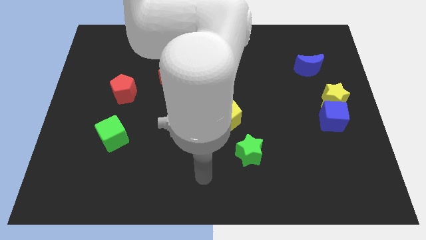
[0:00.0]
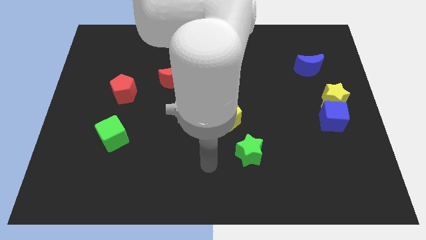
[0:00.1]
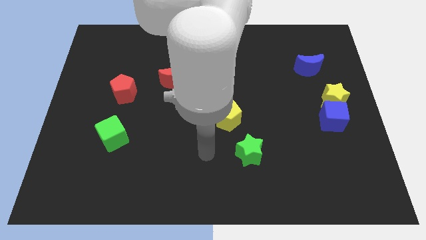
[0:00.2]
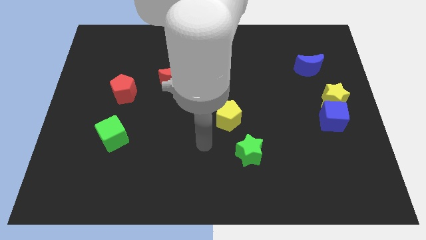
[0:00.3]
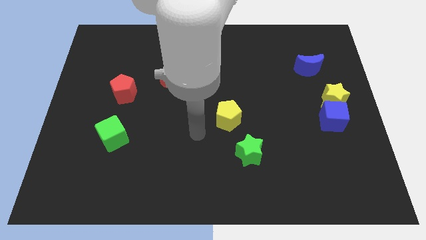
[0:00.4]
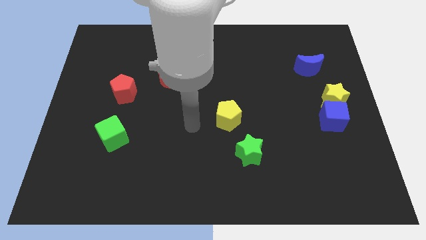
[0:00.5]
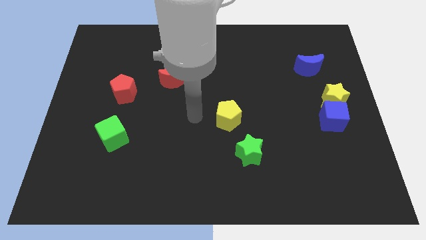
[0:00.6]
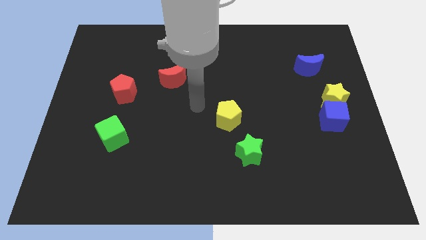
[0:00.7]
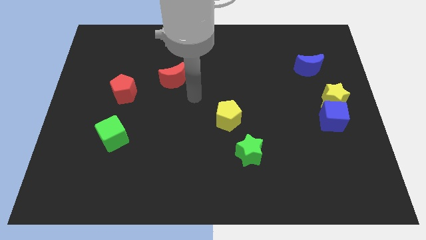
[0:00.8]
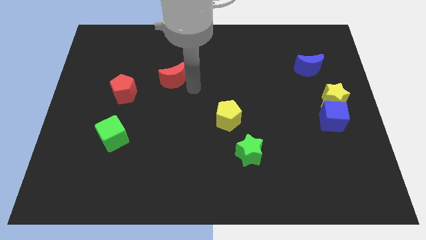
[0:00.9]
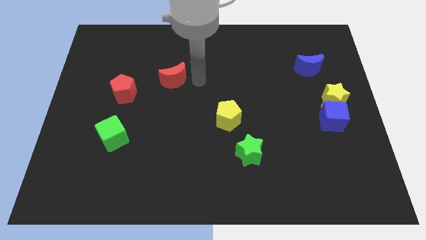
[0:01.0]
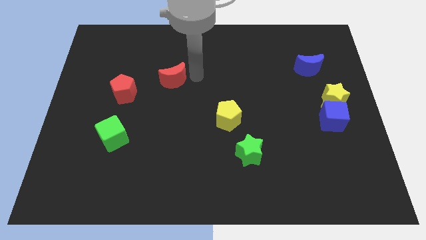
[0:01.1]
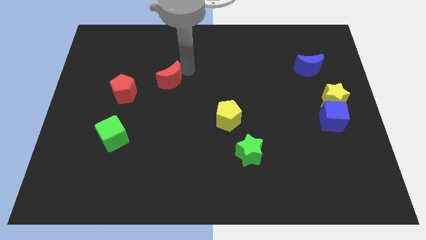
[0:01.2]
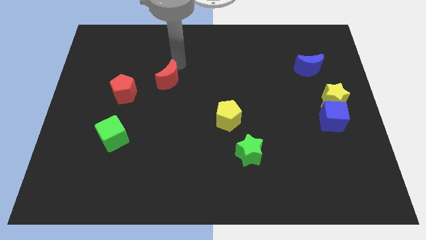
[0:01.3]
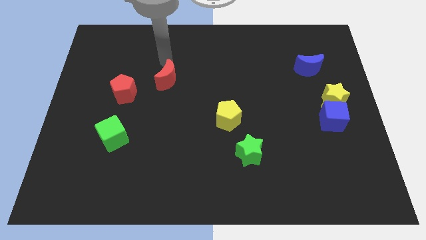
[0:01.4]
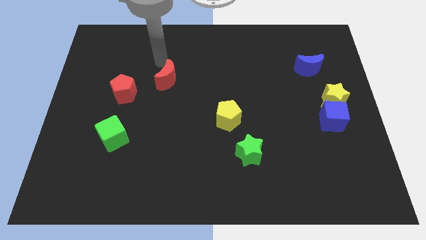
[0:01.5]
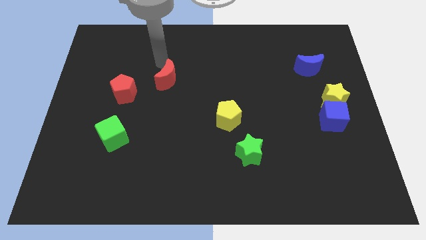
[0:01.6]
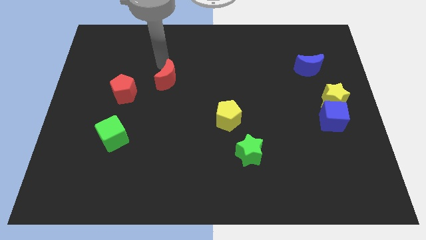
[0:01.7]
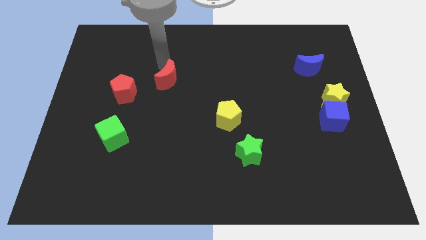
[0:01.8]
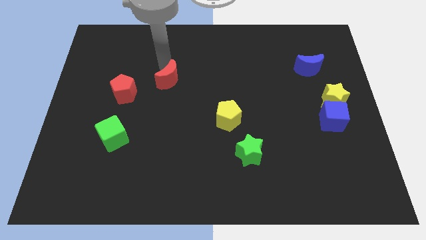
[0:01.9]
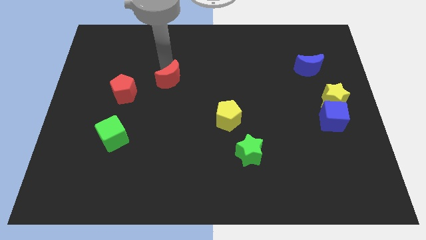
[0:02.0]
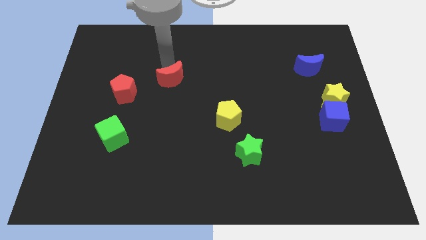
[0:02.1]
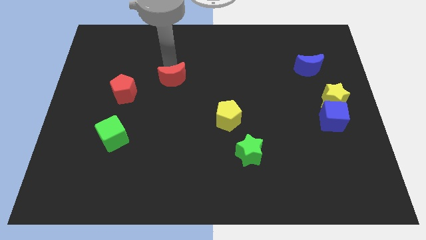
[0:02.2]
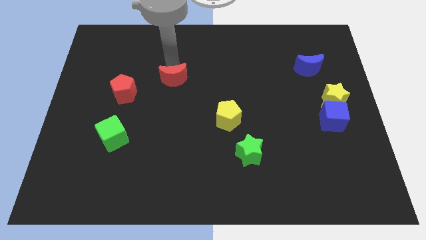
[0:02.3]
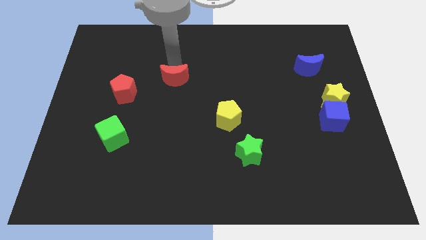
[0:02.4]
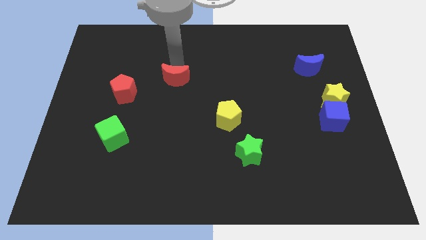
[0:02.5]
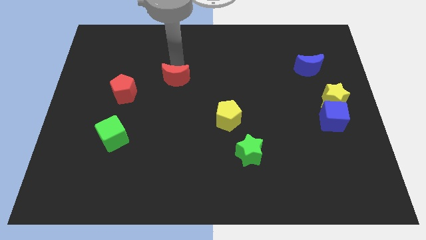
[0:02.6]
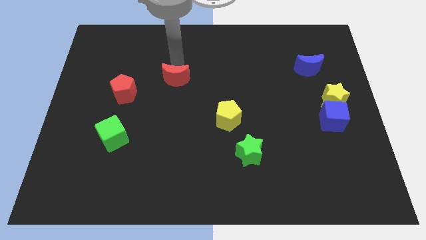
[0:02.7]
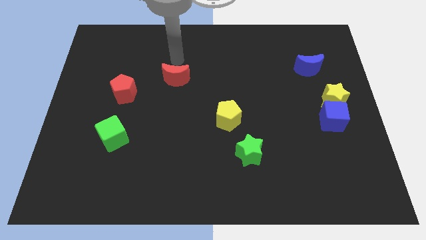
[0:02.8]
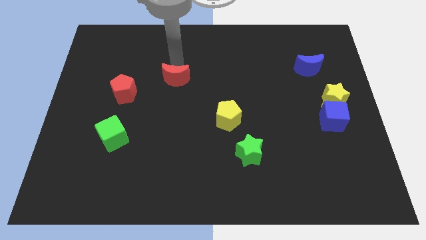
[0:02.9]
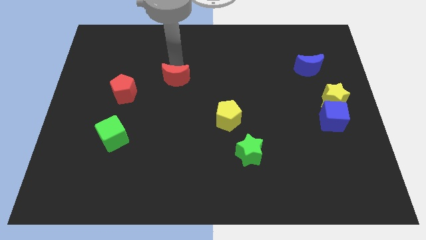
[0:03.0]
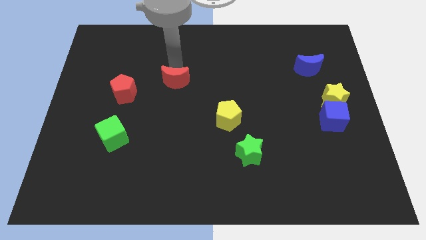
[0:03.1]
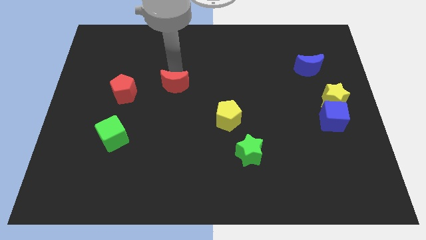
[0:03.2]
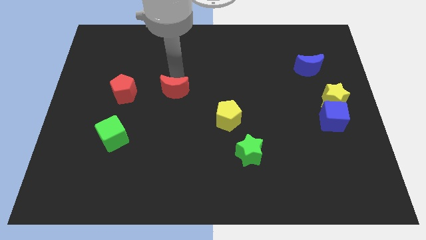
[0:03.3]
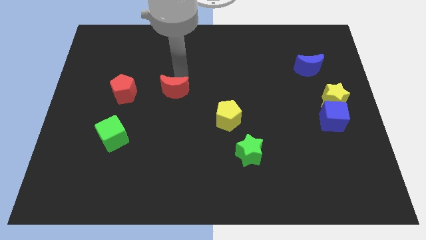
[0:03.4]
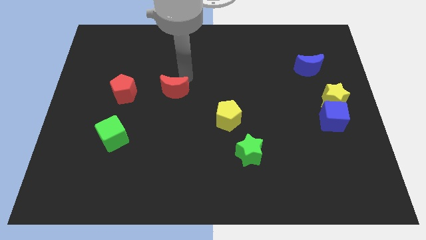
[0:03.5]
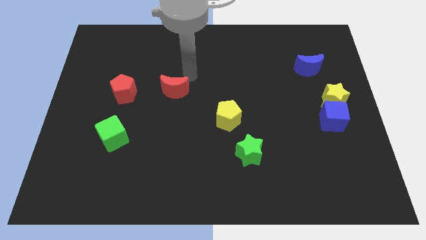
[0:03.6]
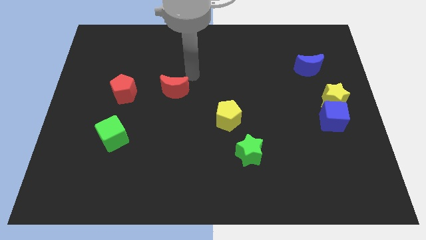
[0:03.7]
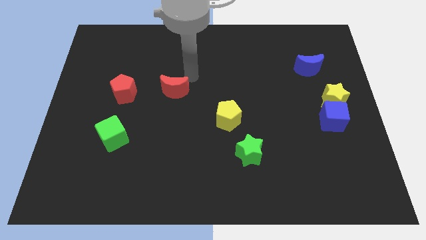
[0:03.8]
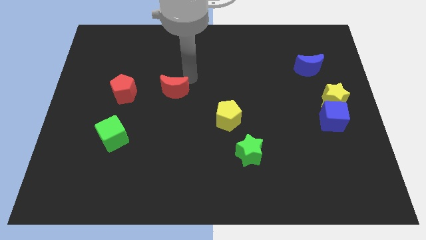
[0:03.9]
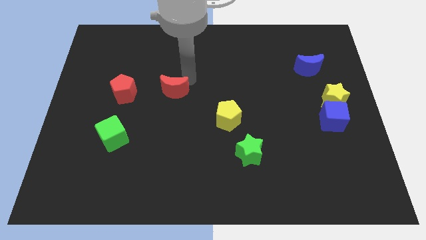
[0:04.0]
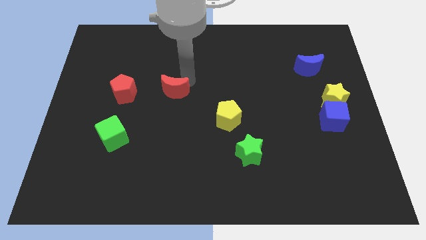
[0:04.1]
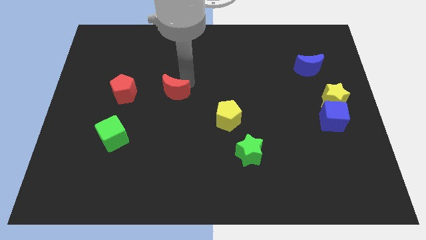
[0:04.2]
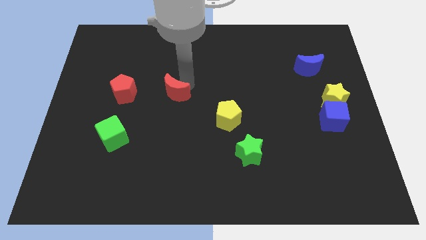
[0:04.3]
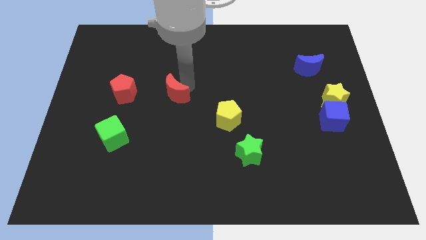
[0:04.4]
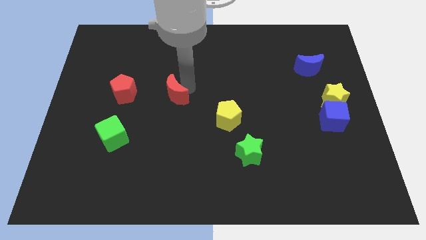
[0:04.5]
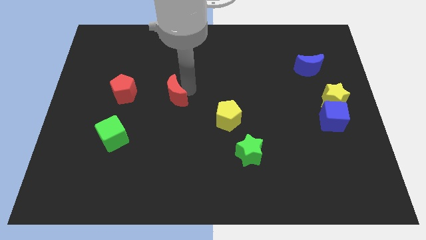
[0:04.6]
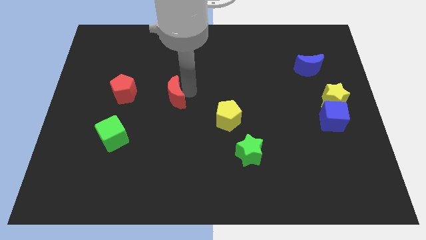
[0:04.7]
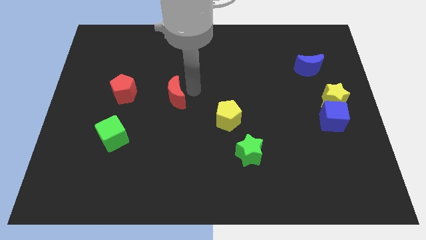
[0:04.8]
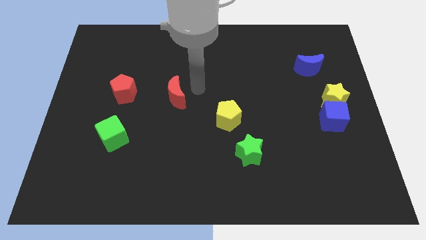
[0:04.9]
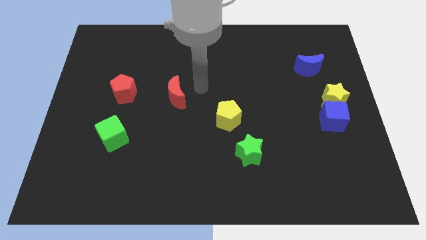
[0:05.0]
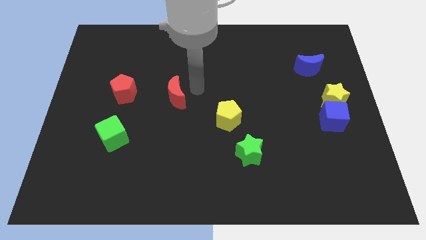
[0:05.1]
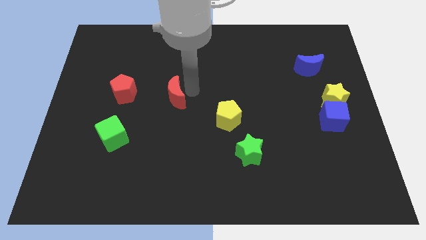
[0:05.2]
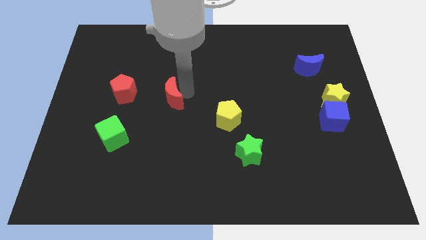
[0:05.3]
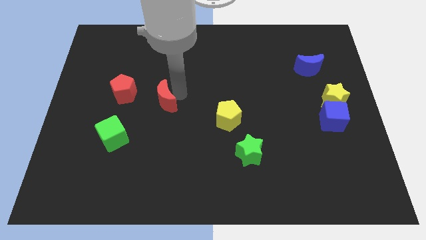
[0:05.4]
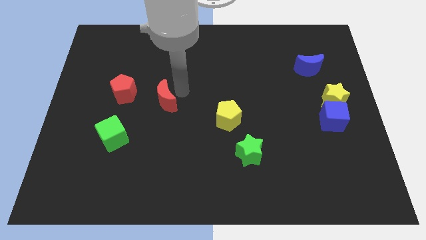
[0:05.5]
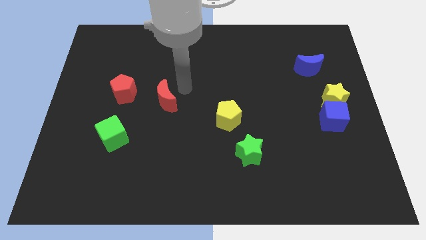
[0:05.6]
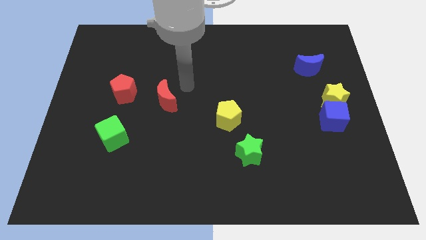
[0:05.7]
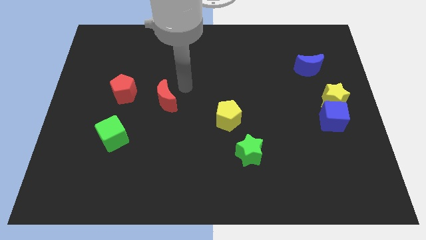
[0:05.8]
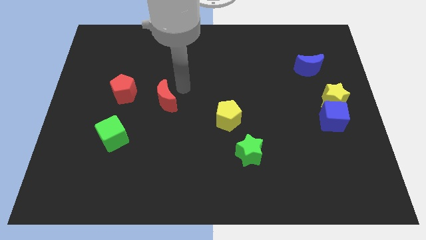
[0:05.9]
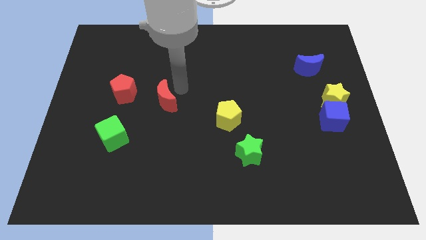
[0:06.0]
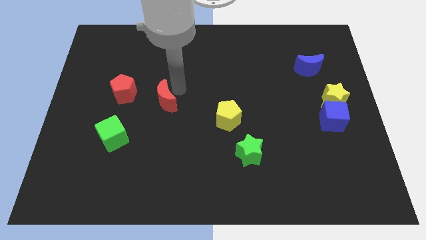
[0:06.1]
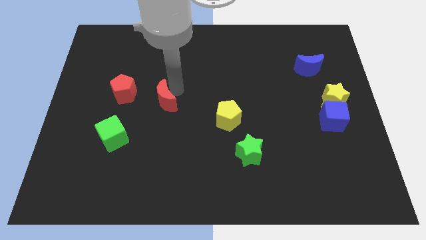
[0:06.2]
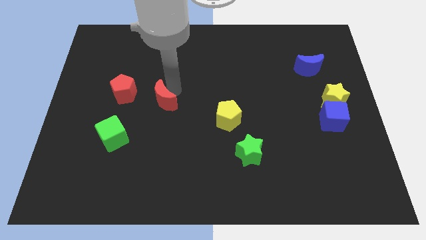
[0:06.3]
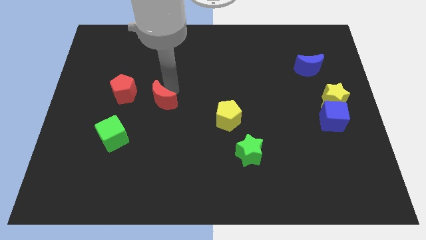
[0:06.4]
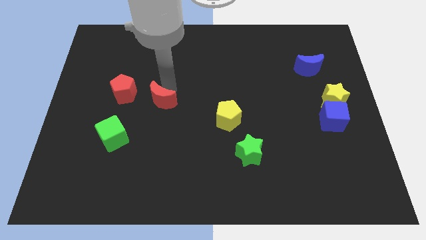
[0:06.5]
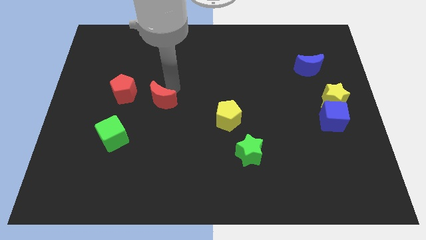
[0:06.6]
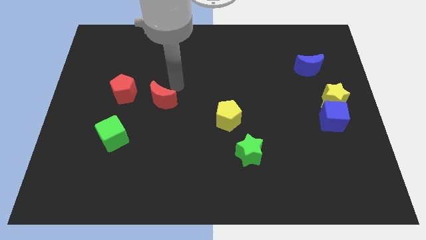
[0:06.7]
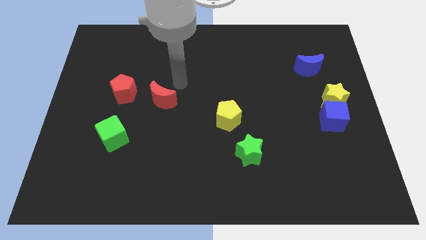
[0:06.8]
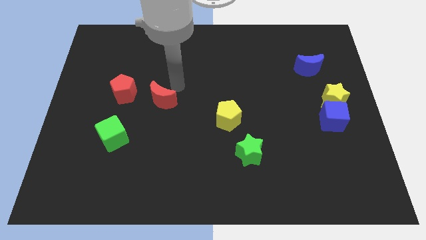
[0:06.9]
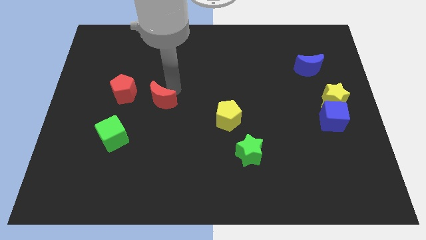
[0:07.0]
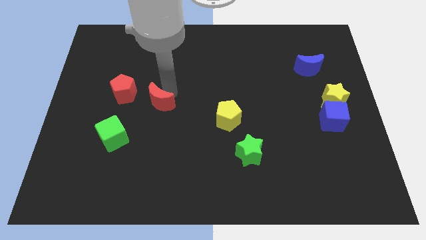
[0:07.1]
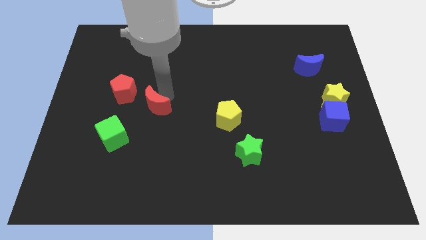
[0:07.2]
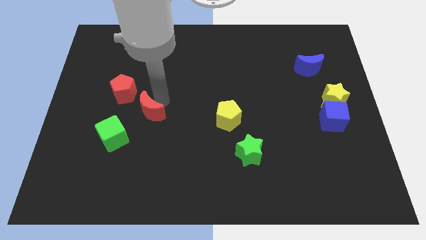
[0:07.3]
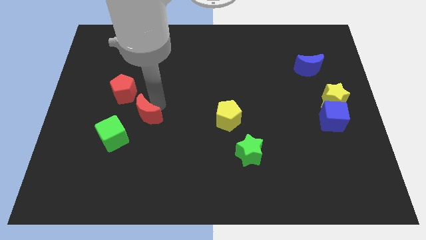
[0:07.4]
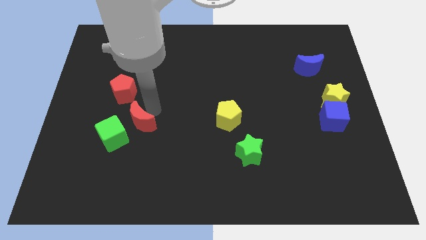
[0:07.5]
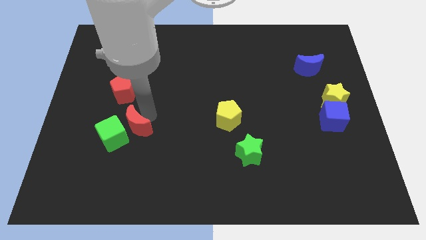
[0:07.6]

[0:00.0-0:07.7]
put the red moon towards the green cube

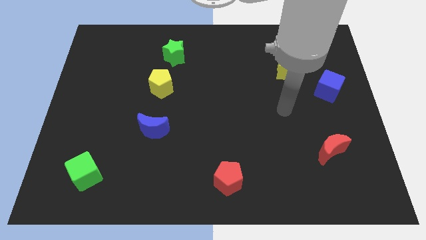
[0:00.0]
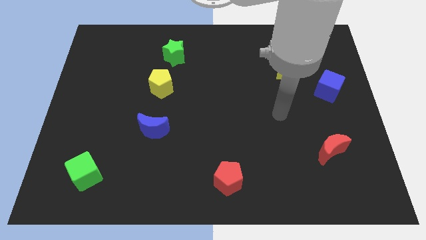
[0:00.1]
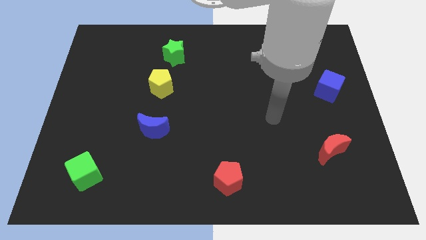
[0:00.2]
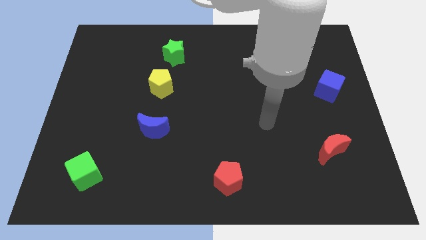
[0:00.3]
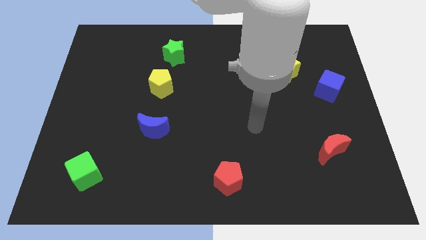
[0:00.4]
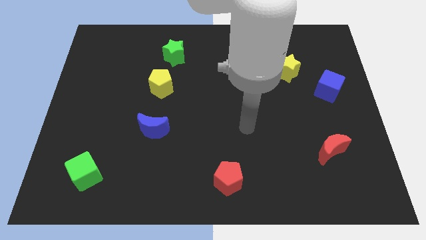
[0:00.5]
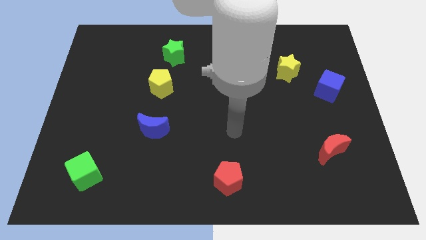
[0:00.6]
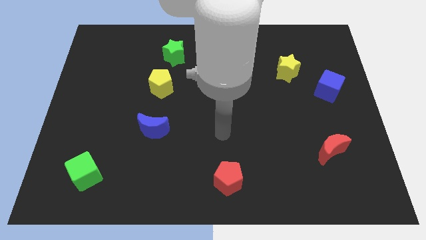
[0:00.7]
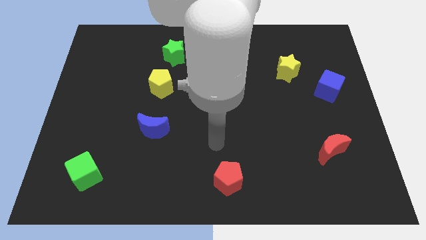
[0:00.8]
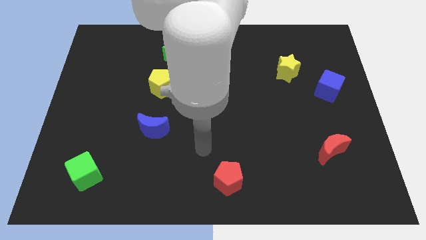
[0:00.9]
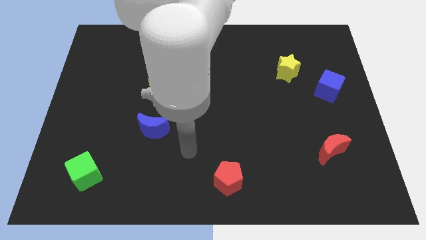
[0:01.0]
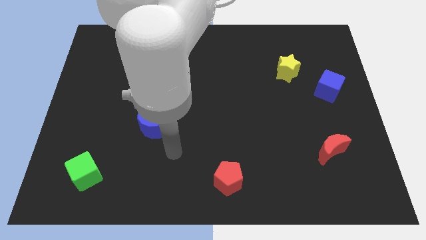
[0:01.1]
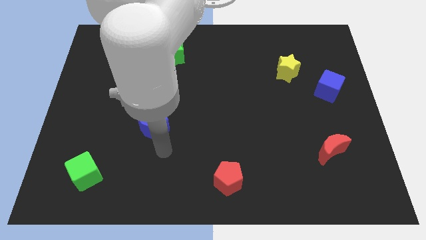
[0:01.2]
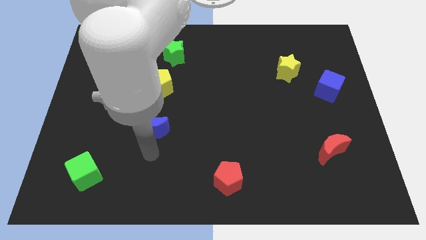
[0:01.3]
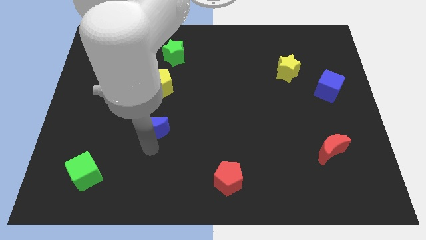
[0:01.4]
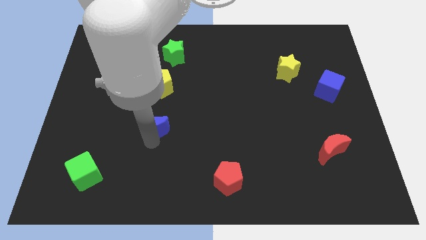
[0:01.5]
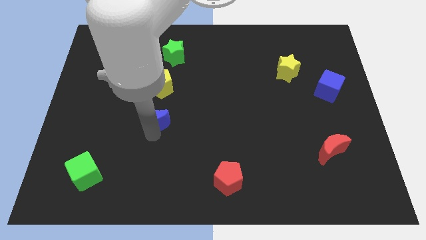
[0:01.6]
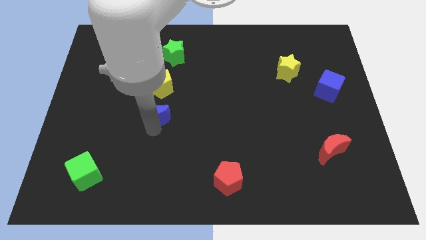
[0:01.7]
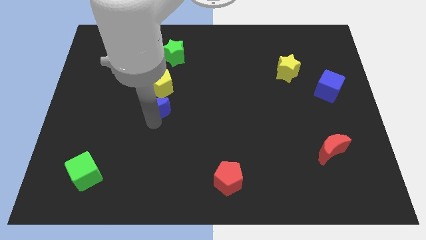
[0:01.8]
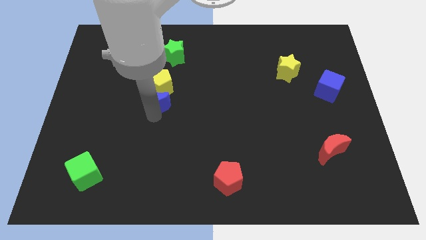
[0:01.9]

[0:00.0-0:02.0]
move the blue moon next to the yellow pentagon
